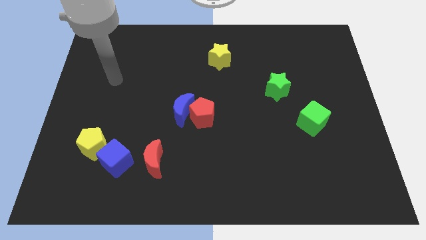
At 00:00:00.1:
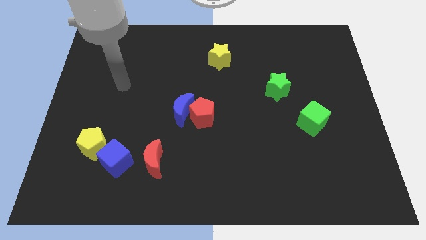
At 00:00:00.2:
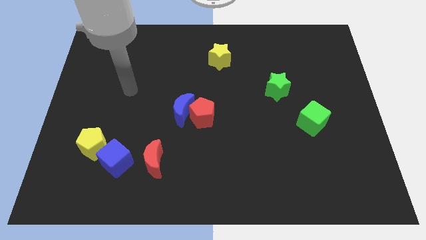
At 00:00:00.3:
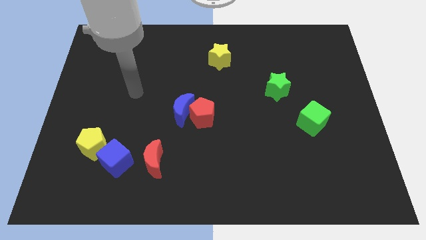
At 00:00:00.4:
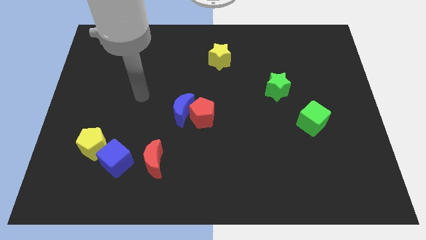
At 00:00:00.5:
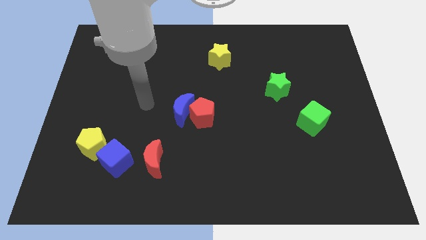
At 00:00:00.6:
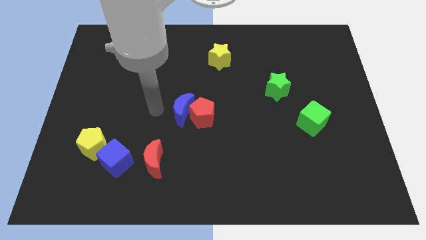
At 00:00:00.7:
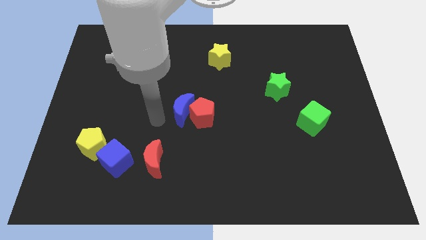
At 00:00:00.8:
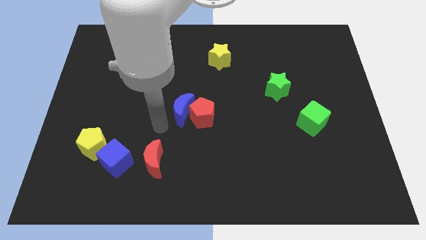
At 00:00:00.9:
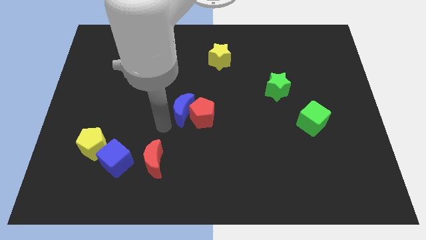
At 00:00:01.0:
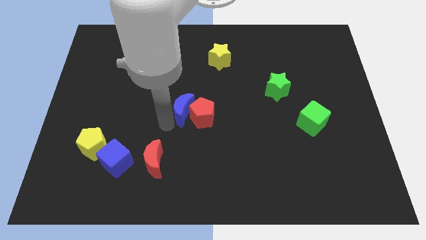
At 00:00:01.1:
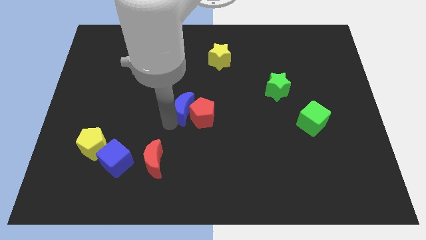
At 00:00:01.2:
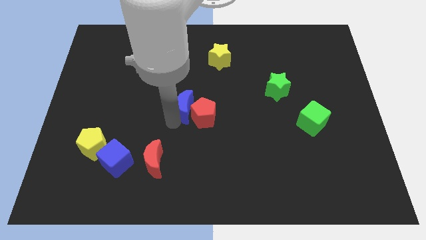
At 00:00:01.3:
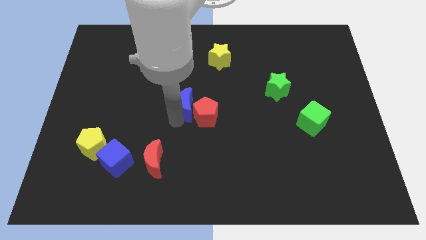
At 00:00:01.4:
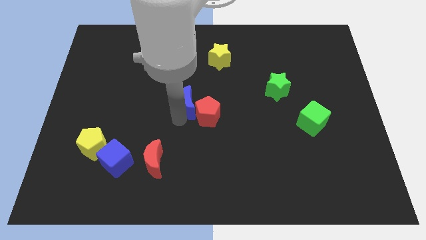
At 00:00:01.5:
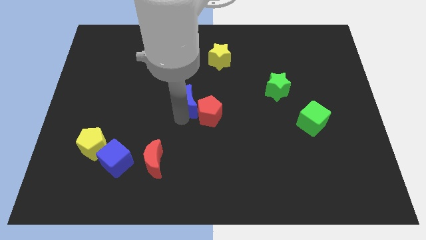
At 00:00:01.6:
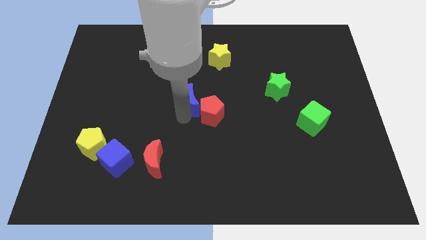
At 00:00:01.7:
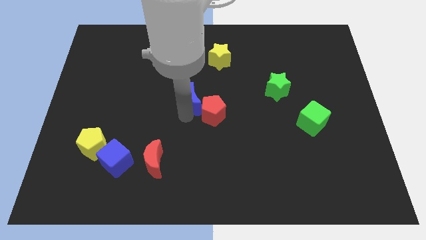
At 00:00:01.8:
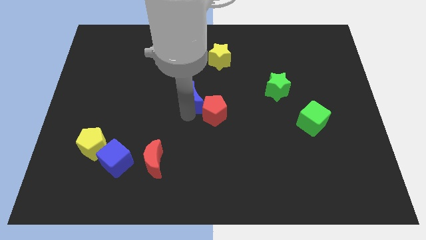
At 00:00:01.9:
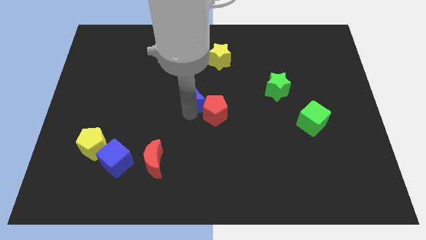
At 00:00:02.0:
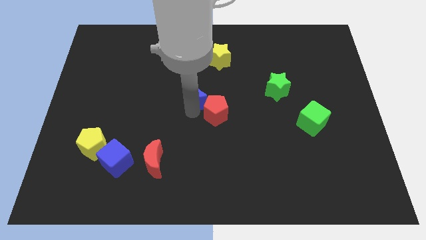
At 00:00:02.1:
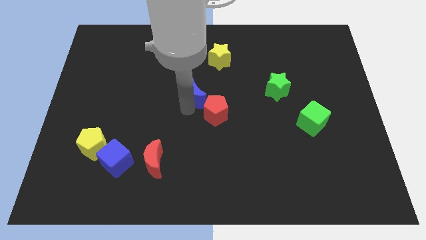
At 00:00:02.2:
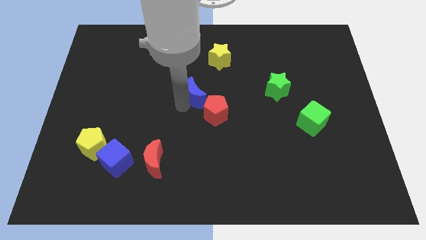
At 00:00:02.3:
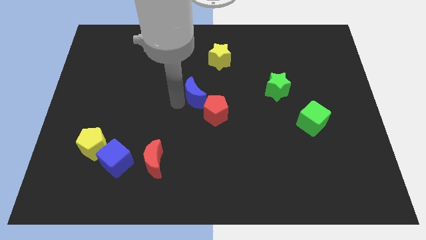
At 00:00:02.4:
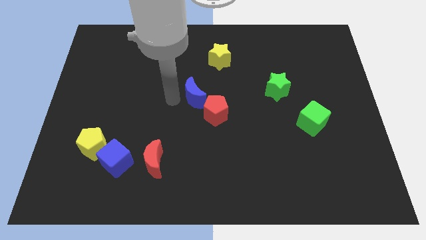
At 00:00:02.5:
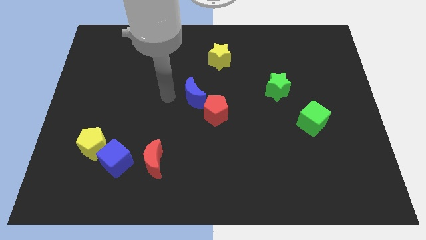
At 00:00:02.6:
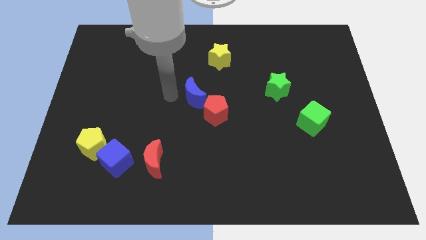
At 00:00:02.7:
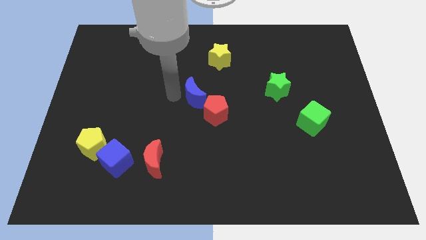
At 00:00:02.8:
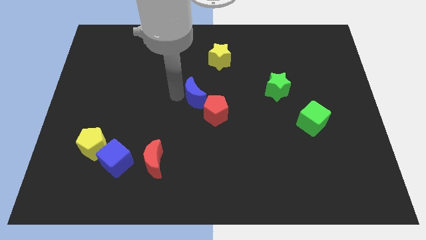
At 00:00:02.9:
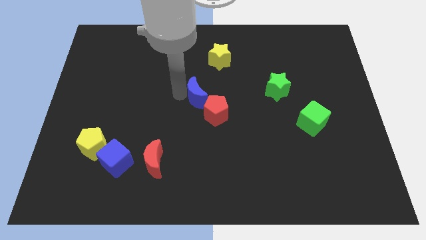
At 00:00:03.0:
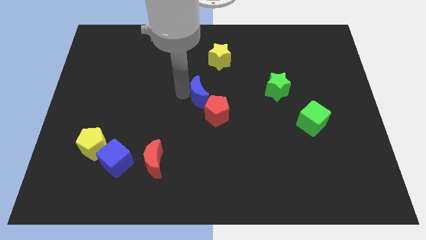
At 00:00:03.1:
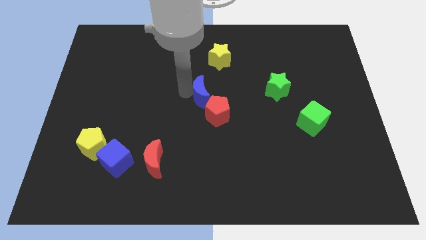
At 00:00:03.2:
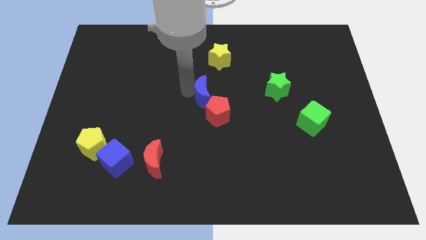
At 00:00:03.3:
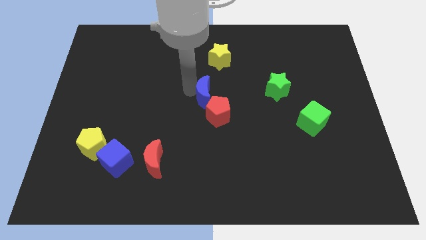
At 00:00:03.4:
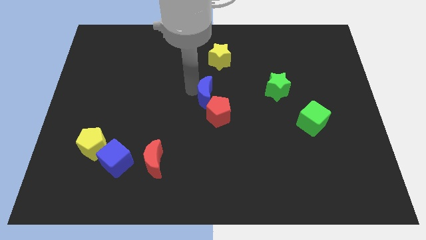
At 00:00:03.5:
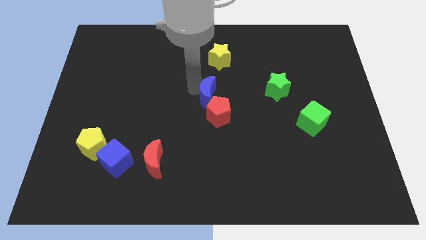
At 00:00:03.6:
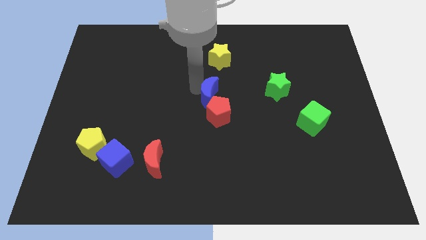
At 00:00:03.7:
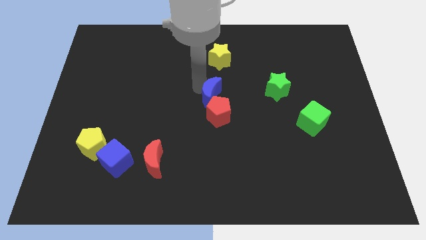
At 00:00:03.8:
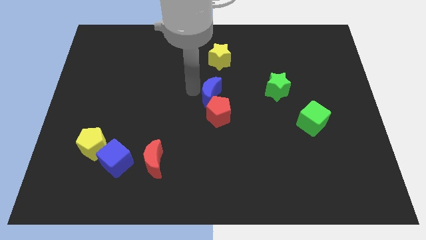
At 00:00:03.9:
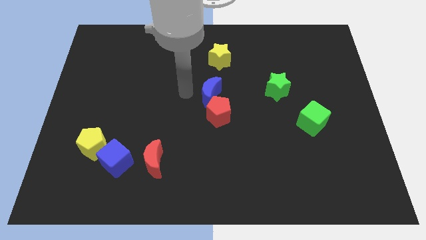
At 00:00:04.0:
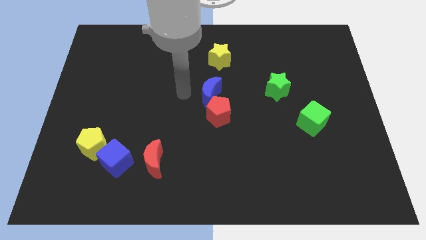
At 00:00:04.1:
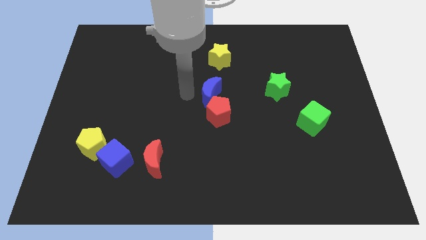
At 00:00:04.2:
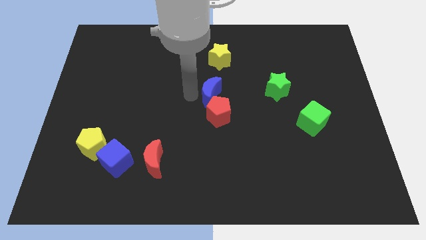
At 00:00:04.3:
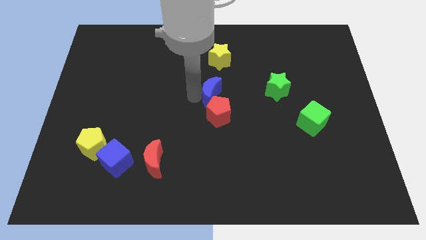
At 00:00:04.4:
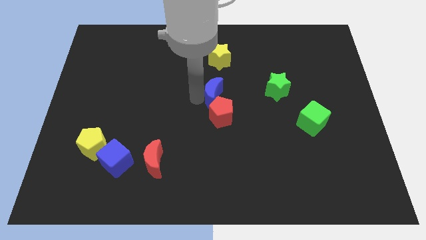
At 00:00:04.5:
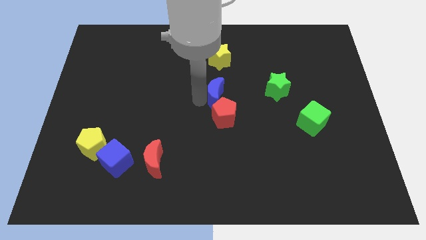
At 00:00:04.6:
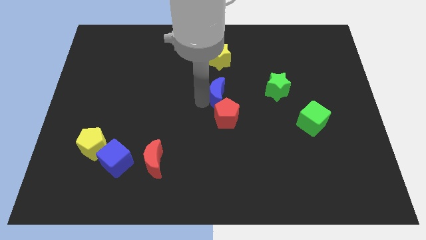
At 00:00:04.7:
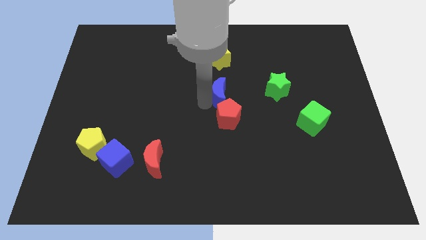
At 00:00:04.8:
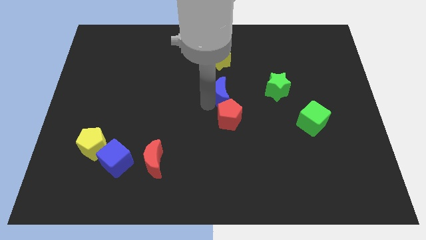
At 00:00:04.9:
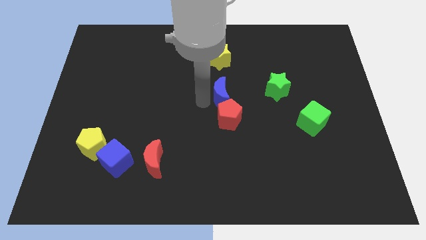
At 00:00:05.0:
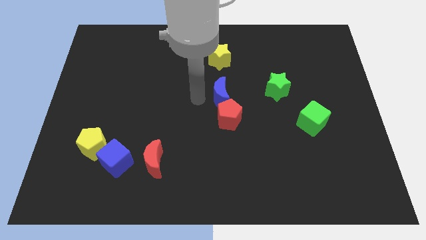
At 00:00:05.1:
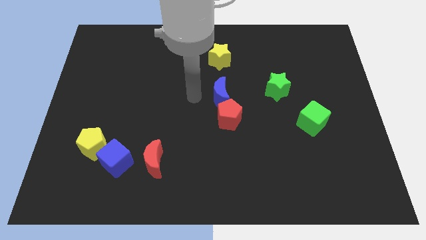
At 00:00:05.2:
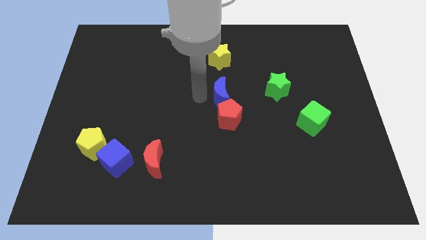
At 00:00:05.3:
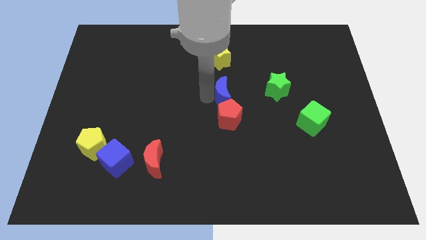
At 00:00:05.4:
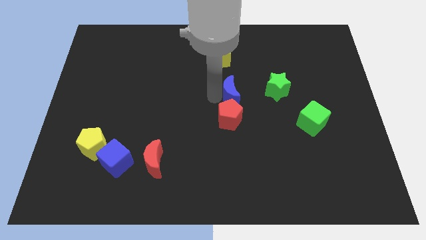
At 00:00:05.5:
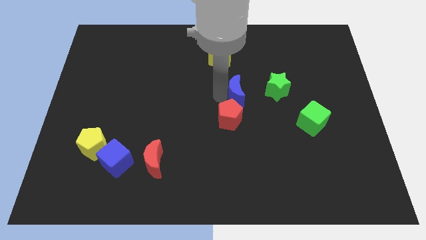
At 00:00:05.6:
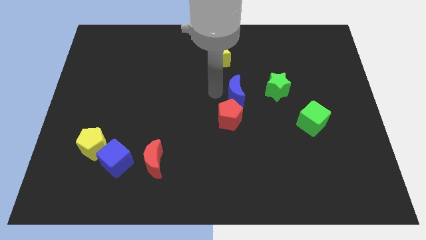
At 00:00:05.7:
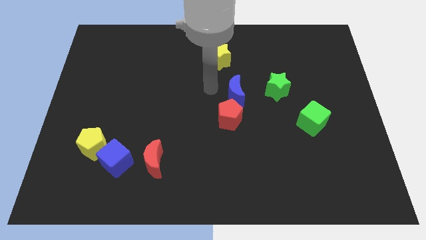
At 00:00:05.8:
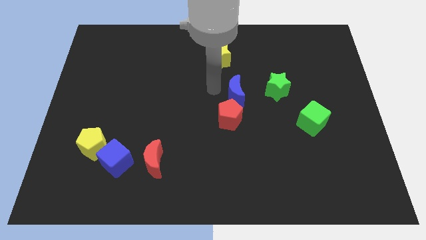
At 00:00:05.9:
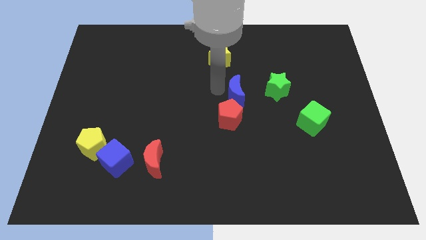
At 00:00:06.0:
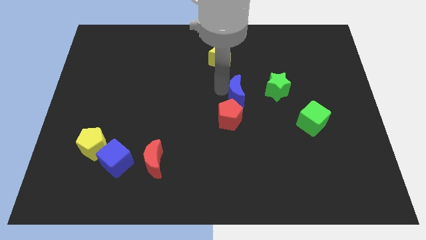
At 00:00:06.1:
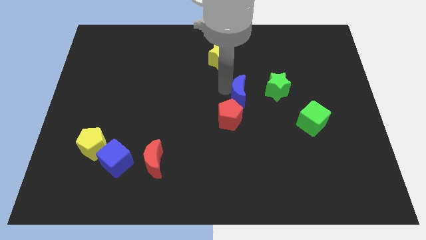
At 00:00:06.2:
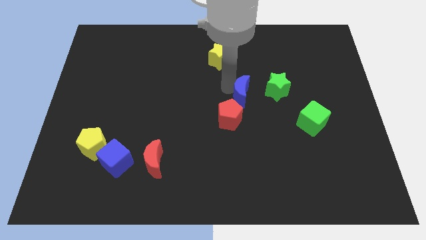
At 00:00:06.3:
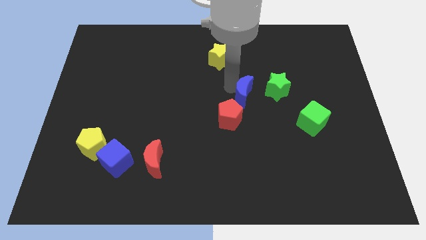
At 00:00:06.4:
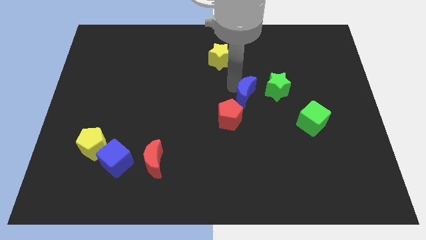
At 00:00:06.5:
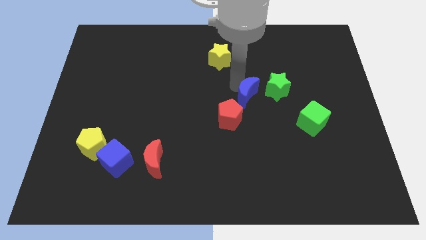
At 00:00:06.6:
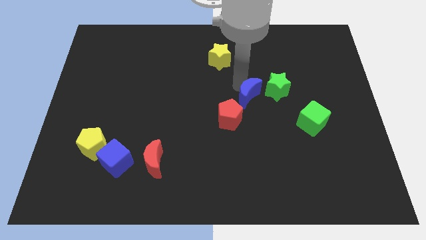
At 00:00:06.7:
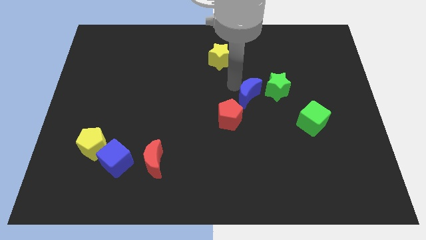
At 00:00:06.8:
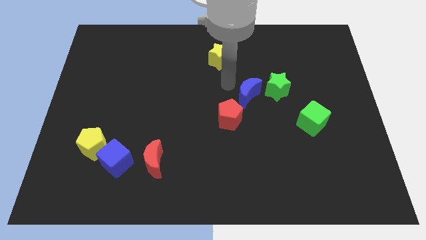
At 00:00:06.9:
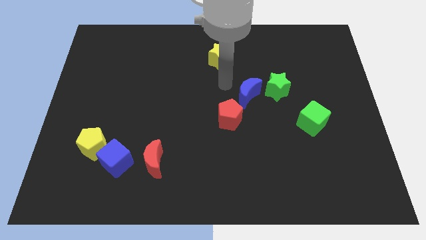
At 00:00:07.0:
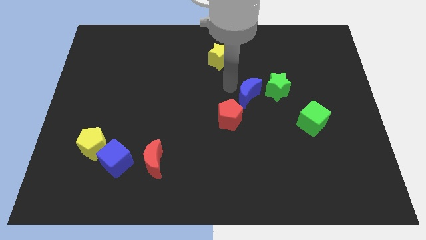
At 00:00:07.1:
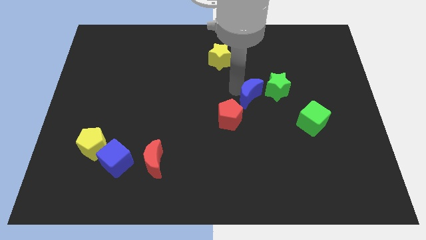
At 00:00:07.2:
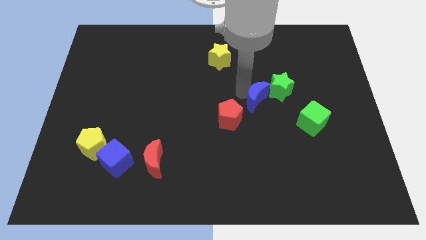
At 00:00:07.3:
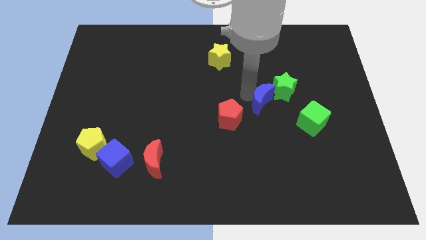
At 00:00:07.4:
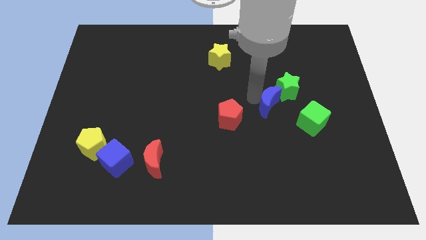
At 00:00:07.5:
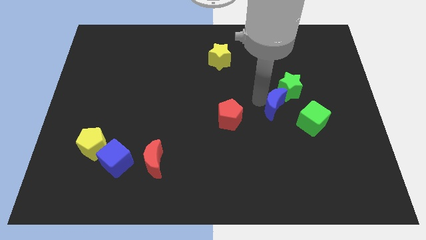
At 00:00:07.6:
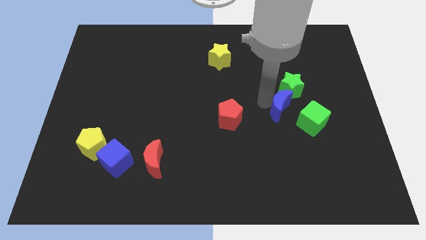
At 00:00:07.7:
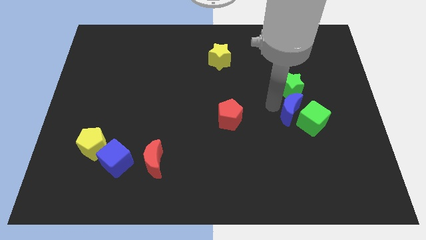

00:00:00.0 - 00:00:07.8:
slide the blue moon towards the green cube
